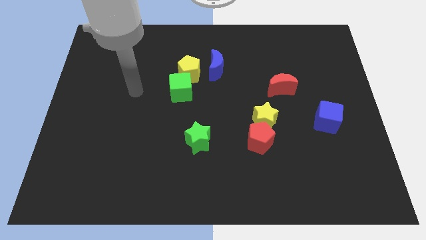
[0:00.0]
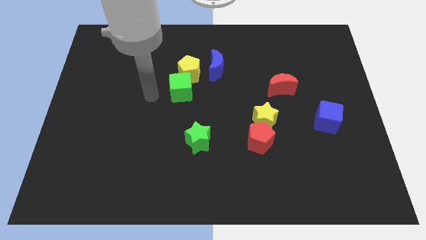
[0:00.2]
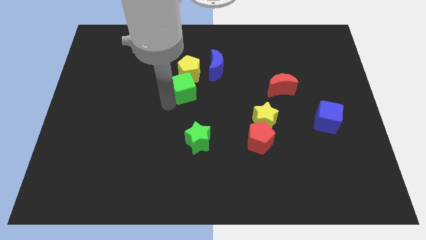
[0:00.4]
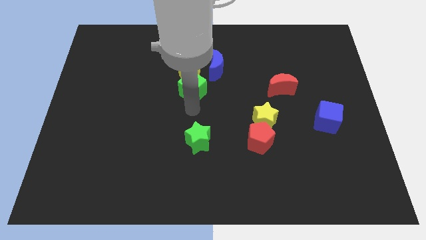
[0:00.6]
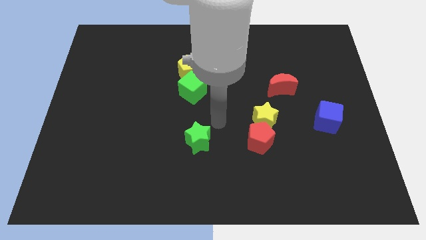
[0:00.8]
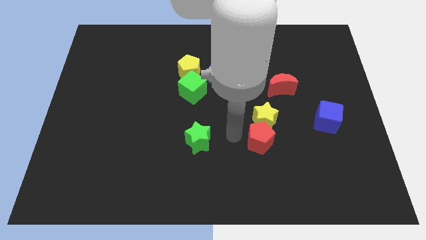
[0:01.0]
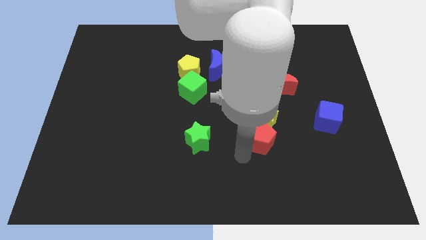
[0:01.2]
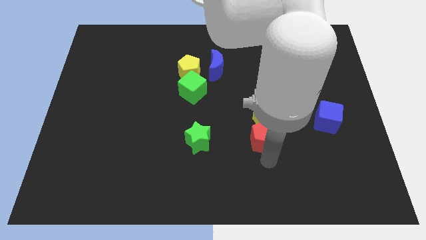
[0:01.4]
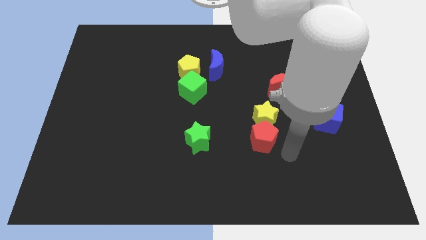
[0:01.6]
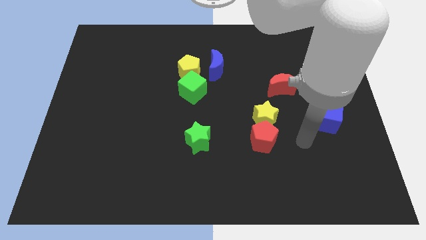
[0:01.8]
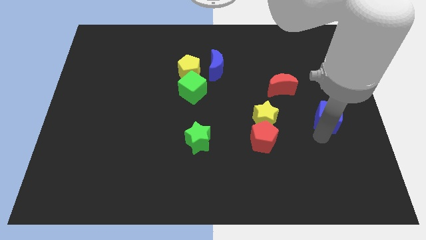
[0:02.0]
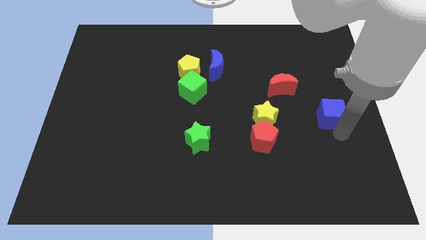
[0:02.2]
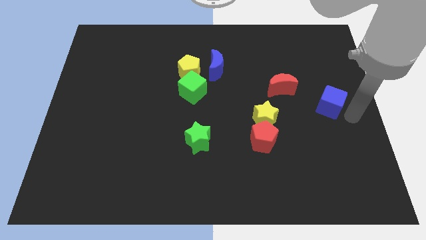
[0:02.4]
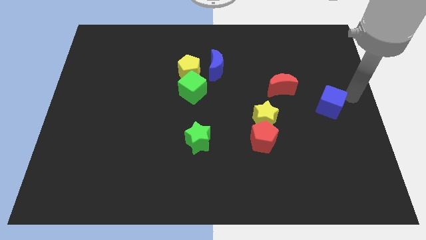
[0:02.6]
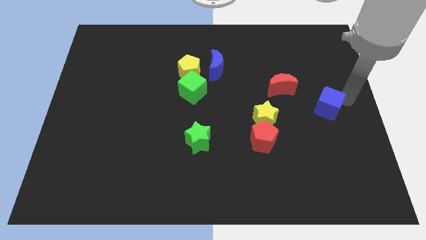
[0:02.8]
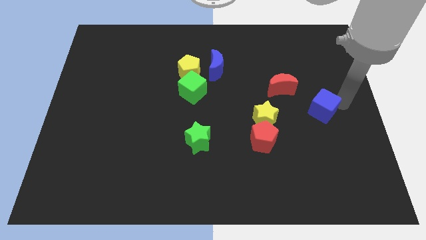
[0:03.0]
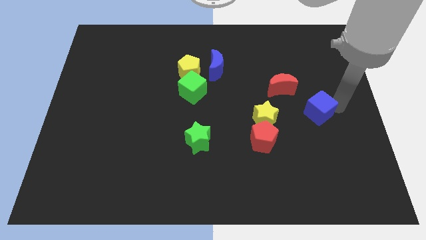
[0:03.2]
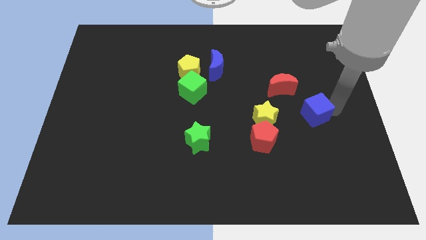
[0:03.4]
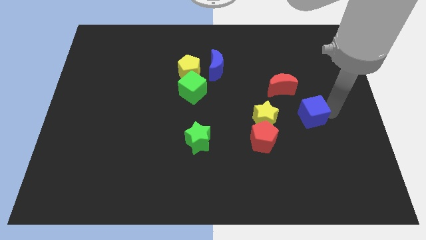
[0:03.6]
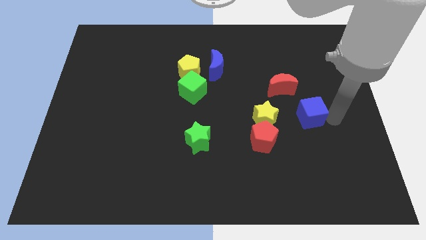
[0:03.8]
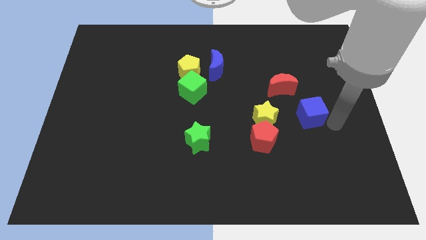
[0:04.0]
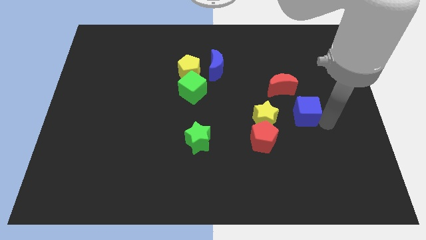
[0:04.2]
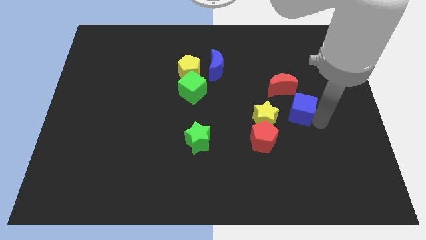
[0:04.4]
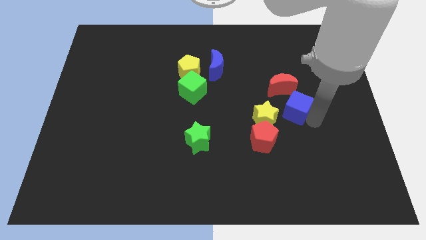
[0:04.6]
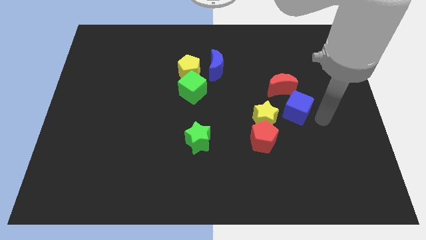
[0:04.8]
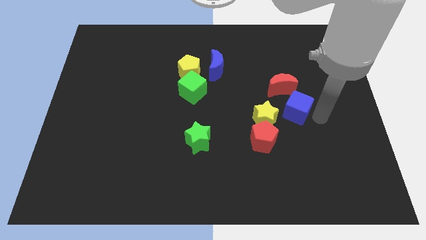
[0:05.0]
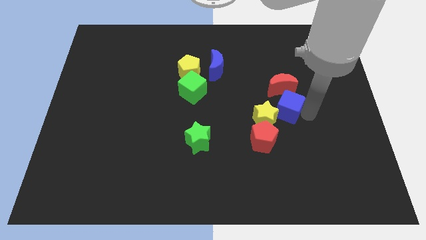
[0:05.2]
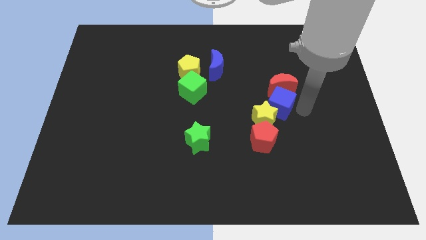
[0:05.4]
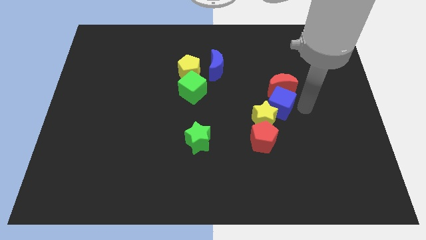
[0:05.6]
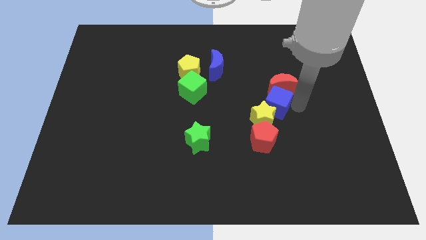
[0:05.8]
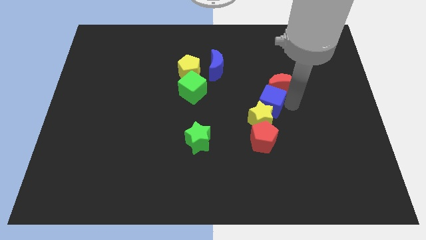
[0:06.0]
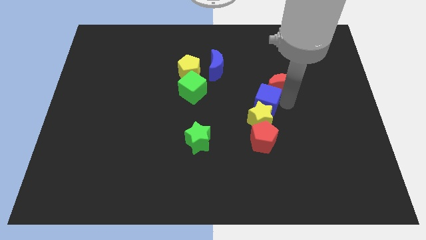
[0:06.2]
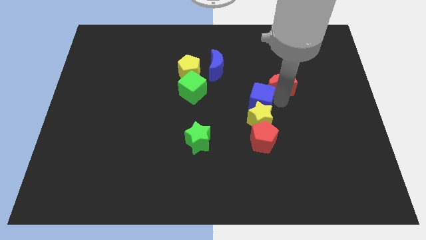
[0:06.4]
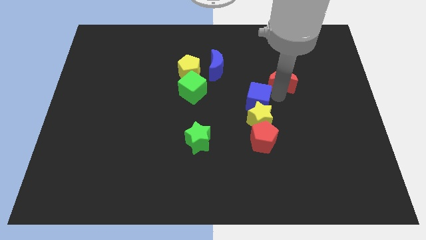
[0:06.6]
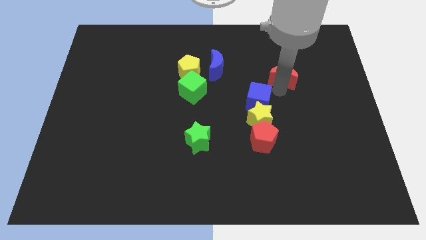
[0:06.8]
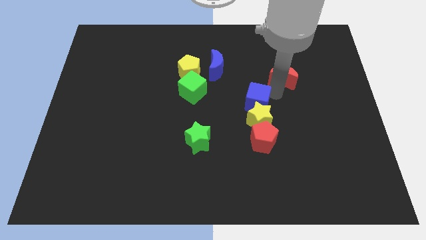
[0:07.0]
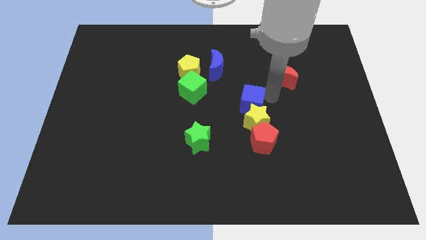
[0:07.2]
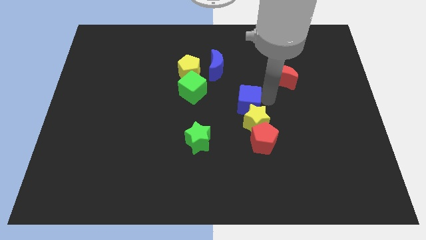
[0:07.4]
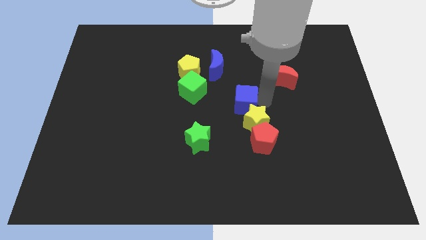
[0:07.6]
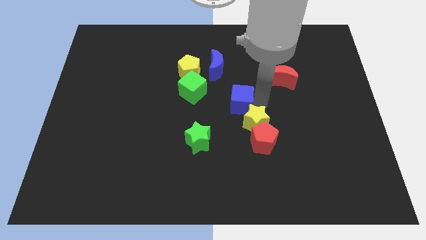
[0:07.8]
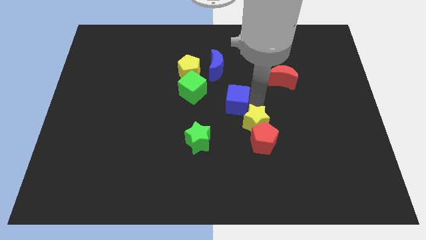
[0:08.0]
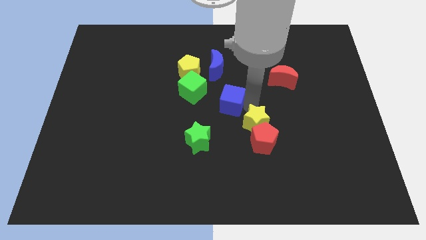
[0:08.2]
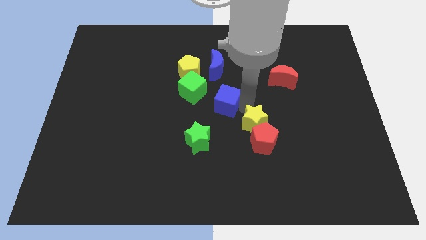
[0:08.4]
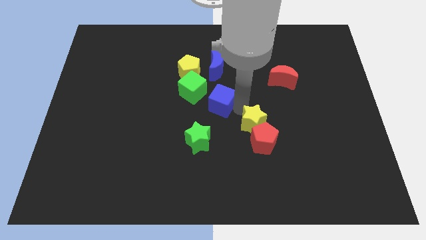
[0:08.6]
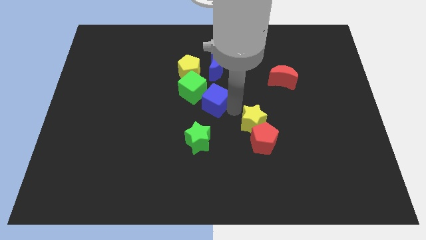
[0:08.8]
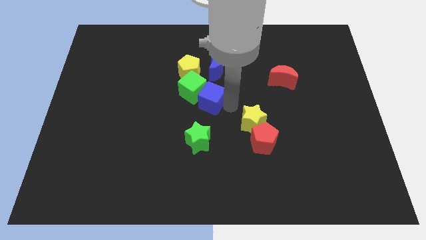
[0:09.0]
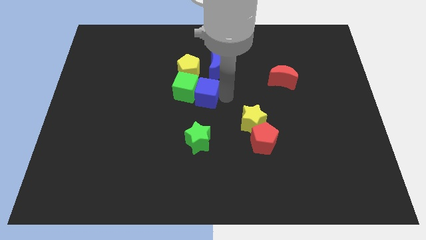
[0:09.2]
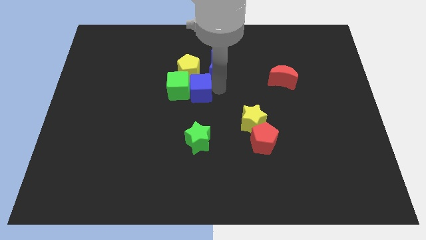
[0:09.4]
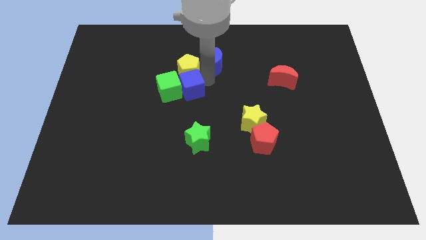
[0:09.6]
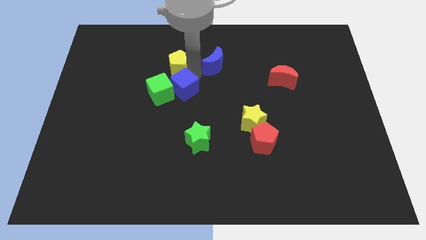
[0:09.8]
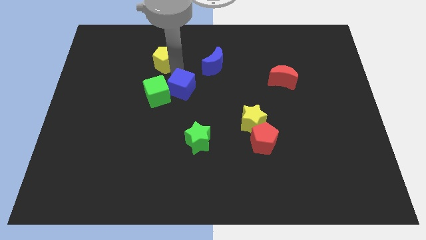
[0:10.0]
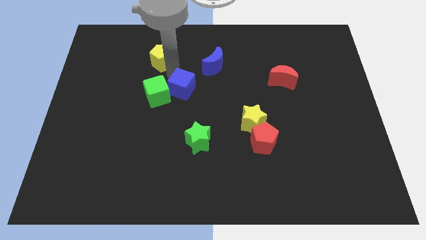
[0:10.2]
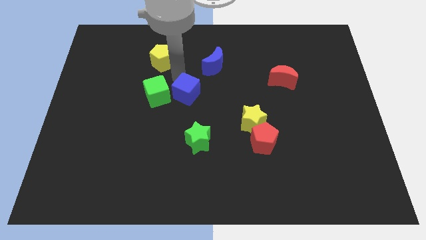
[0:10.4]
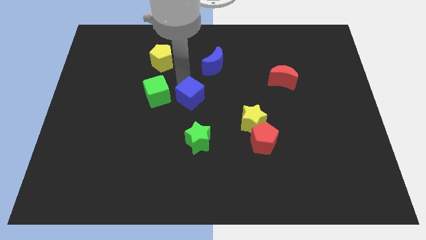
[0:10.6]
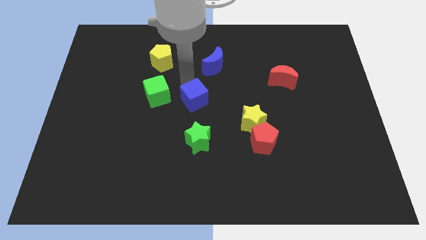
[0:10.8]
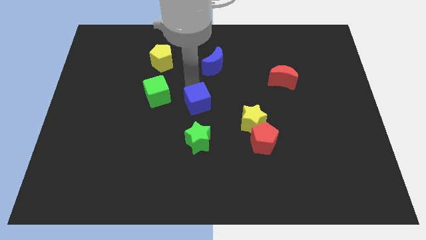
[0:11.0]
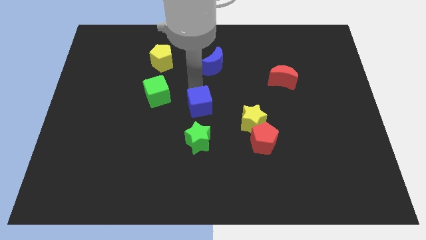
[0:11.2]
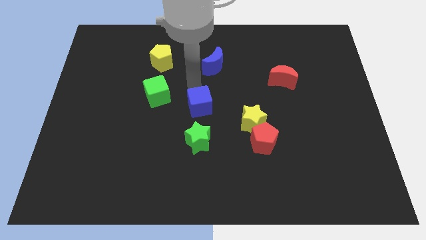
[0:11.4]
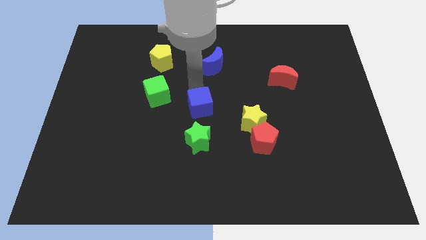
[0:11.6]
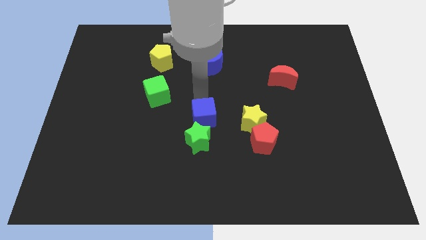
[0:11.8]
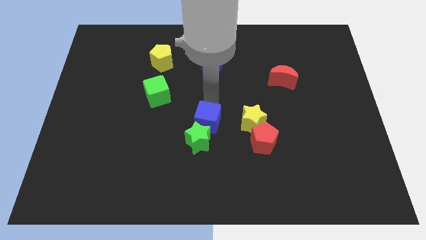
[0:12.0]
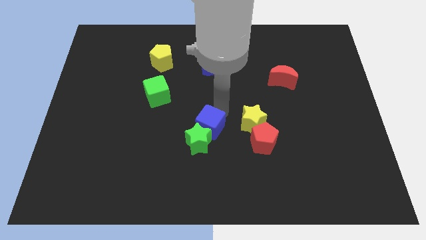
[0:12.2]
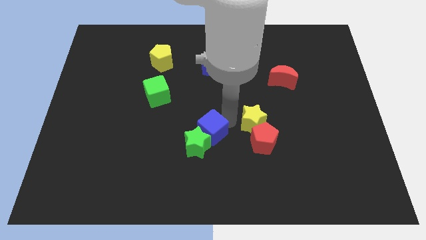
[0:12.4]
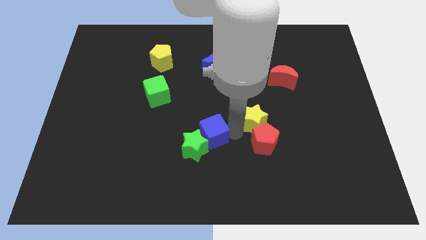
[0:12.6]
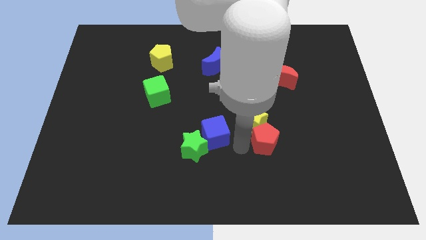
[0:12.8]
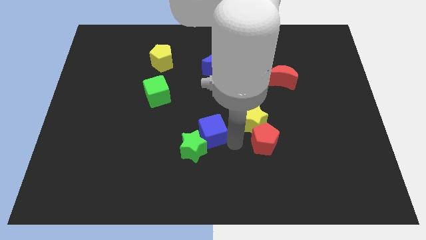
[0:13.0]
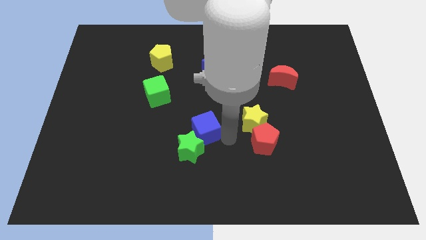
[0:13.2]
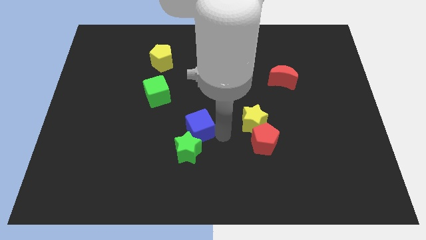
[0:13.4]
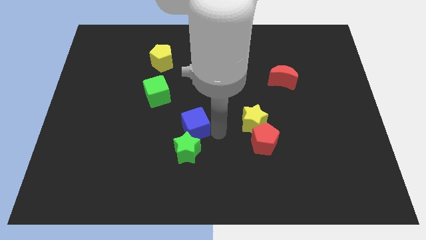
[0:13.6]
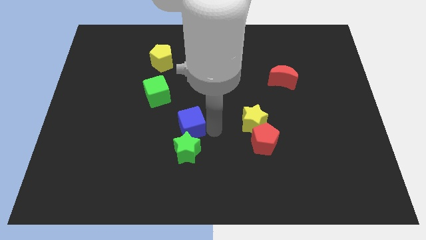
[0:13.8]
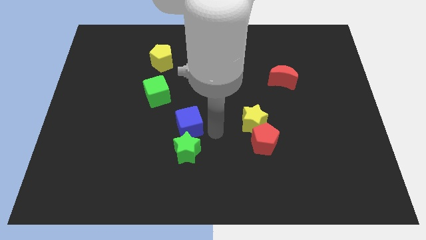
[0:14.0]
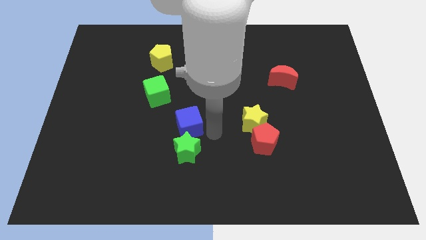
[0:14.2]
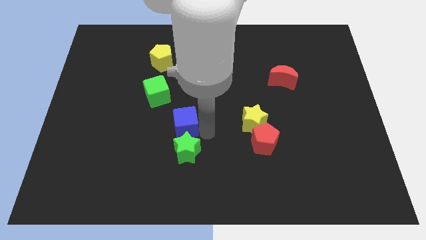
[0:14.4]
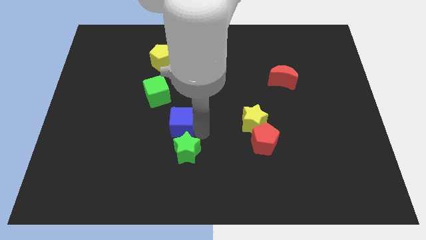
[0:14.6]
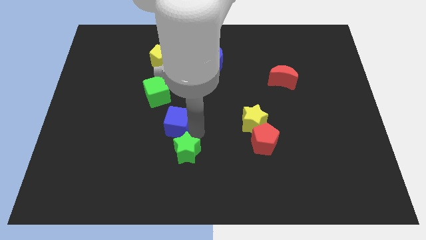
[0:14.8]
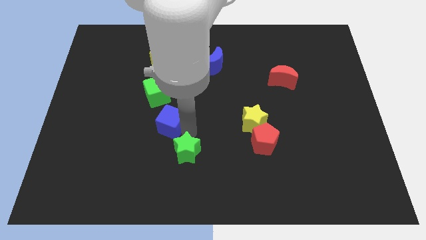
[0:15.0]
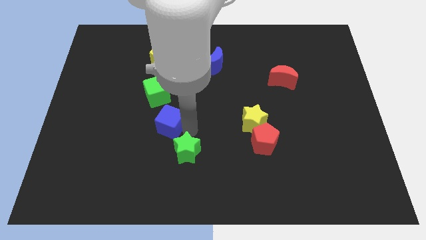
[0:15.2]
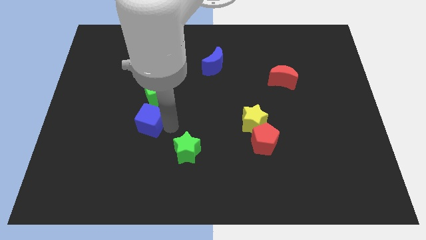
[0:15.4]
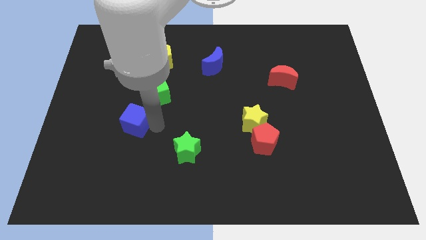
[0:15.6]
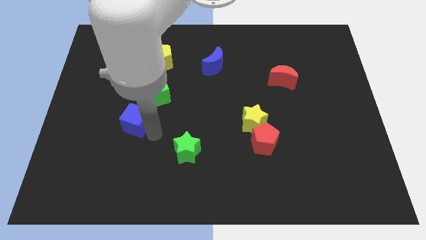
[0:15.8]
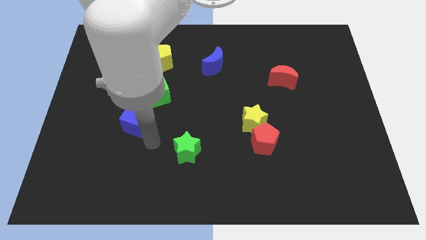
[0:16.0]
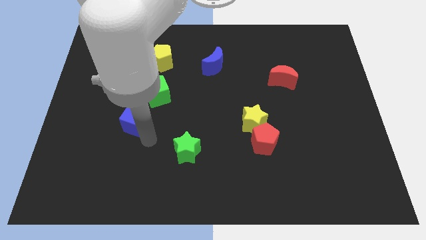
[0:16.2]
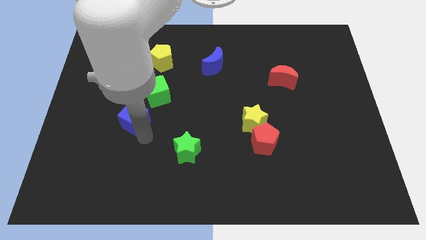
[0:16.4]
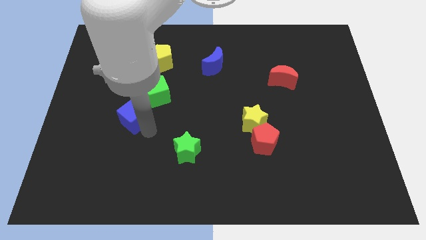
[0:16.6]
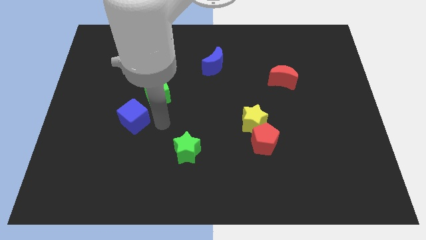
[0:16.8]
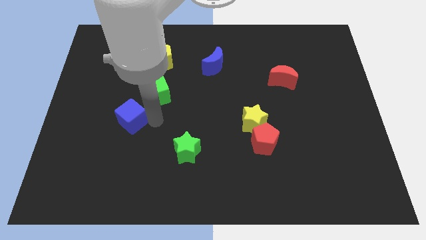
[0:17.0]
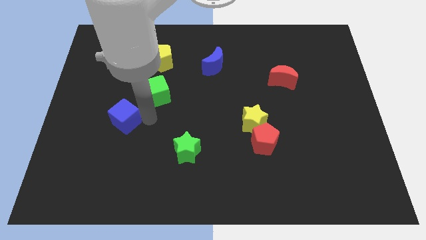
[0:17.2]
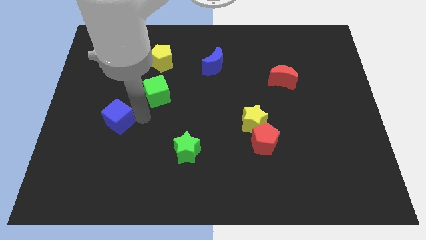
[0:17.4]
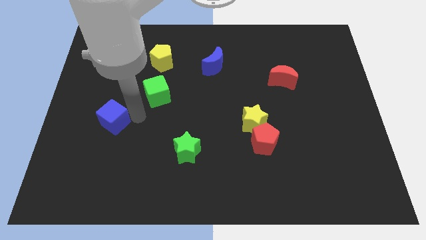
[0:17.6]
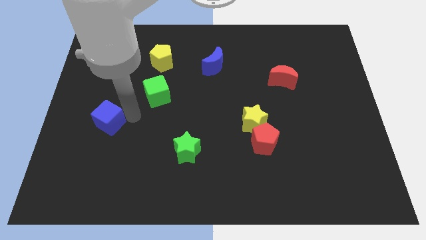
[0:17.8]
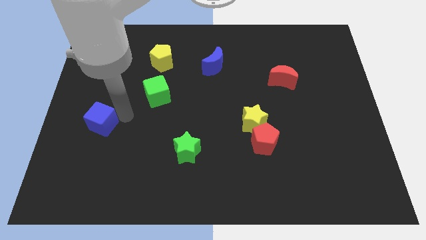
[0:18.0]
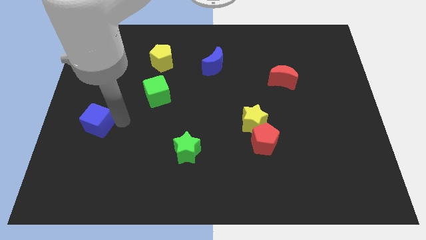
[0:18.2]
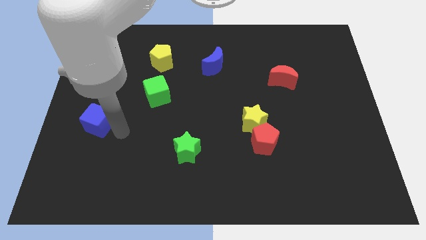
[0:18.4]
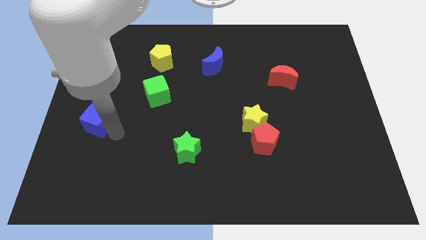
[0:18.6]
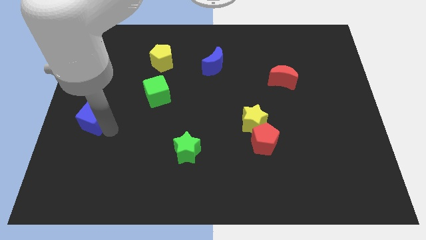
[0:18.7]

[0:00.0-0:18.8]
push the blue cube to the left side
